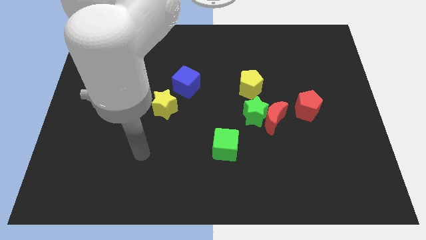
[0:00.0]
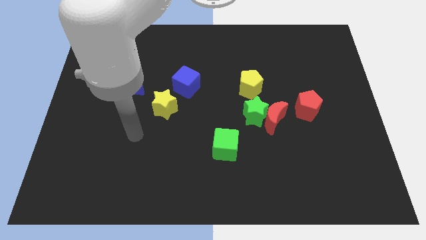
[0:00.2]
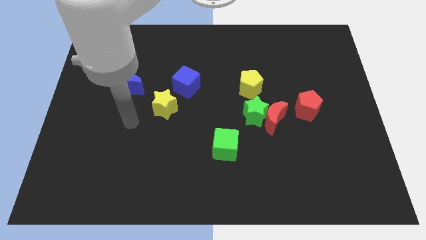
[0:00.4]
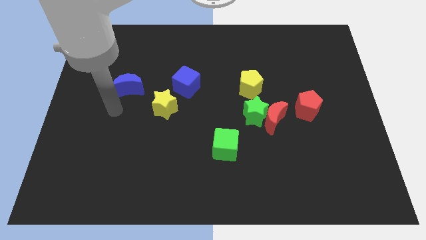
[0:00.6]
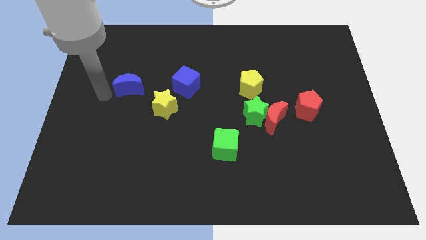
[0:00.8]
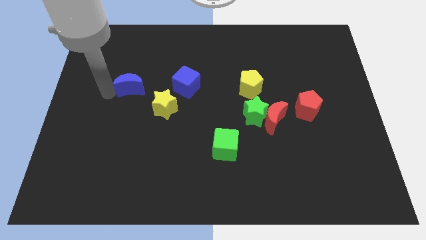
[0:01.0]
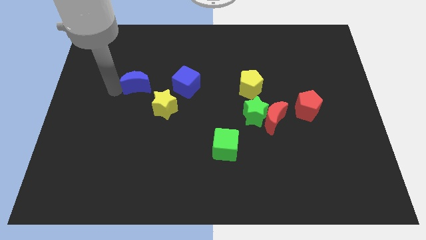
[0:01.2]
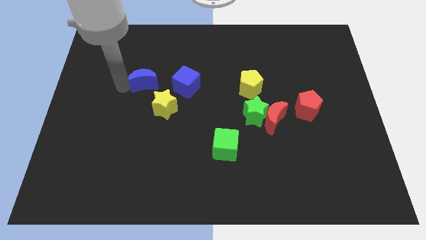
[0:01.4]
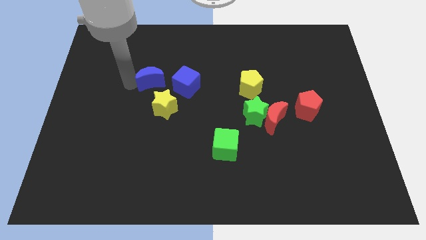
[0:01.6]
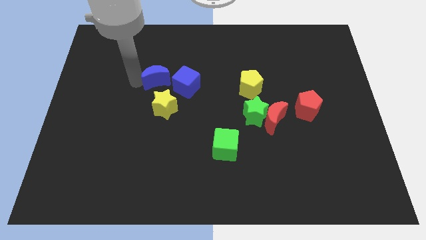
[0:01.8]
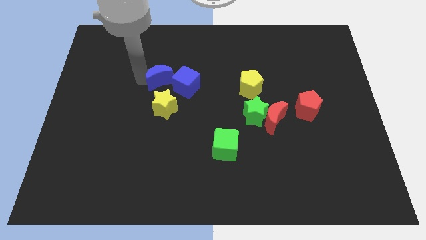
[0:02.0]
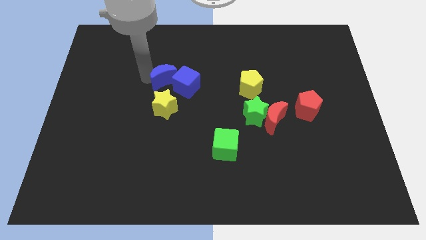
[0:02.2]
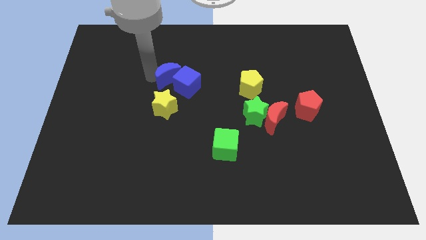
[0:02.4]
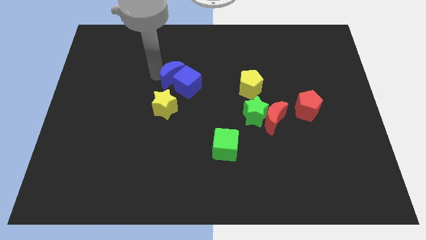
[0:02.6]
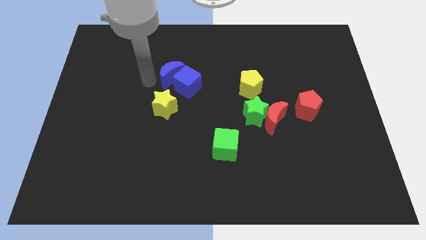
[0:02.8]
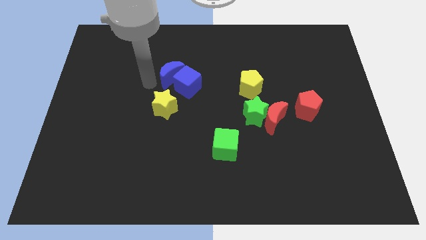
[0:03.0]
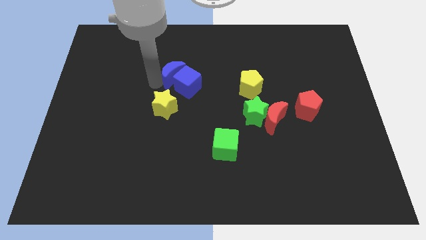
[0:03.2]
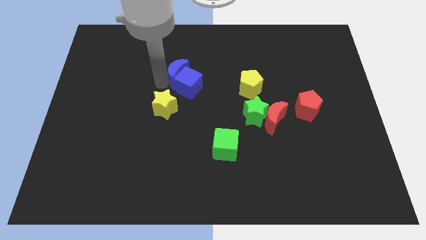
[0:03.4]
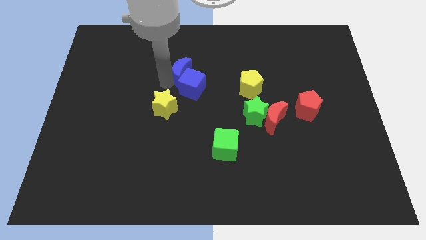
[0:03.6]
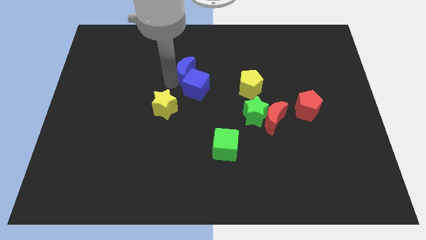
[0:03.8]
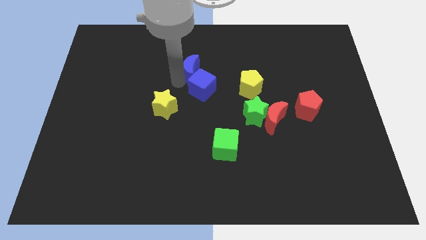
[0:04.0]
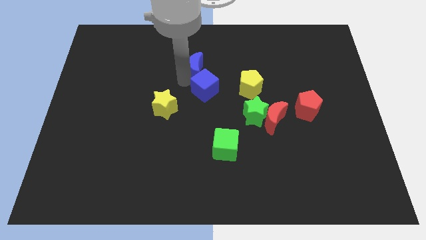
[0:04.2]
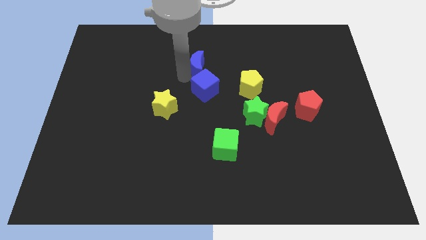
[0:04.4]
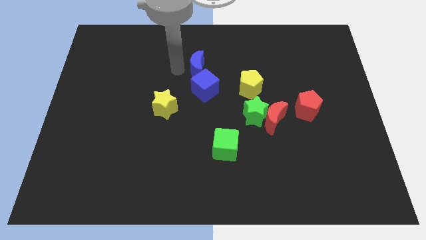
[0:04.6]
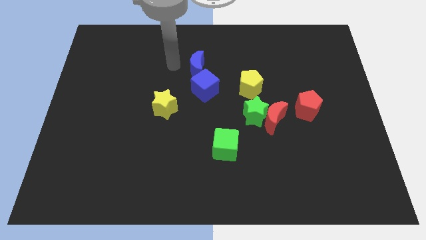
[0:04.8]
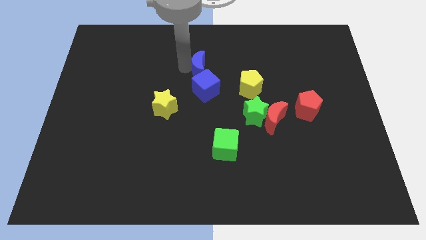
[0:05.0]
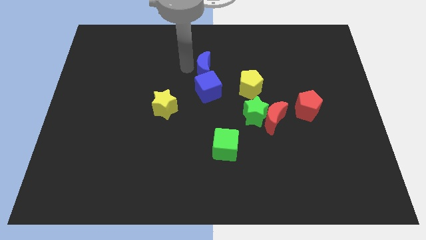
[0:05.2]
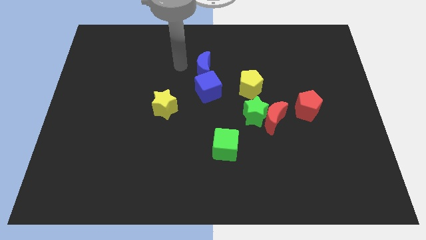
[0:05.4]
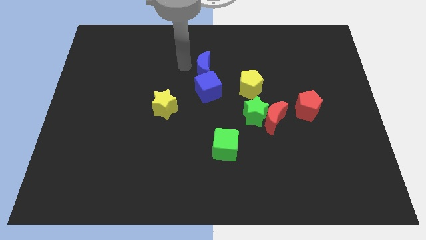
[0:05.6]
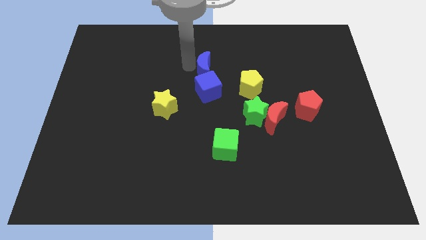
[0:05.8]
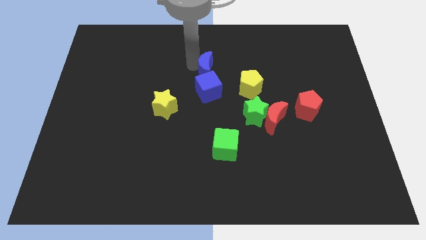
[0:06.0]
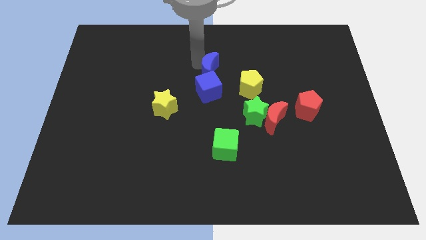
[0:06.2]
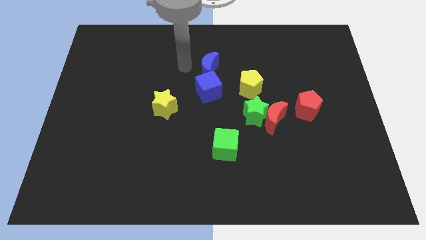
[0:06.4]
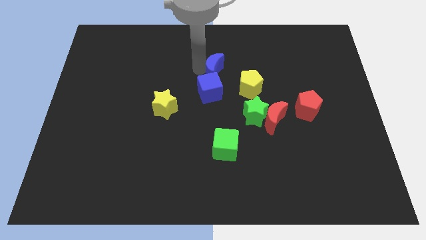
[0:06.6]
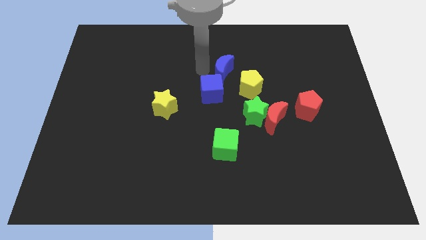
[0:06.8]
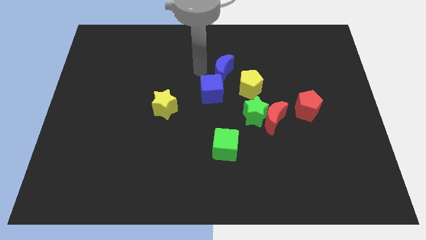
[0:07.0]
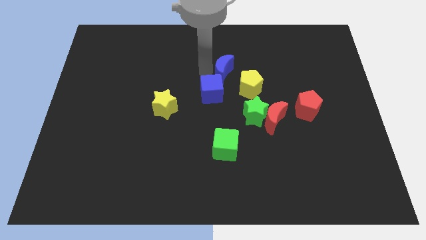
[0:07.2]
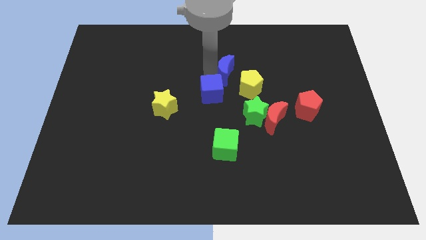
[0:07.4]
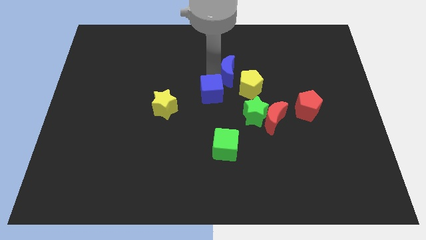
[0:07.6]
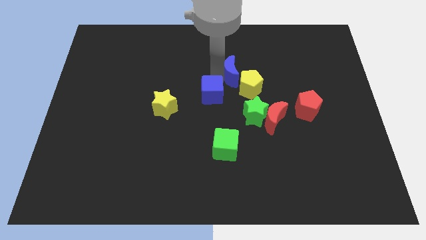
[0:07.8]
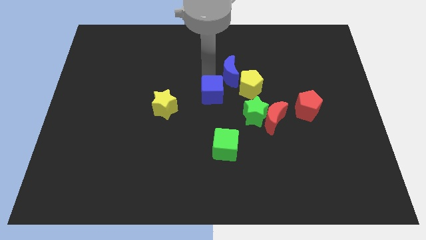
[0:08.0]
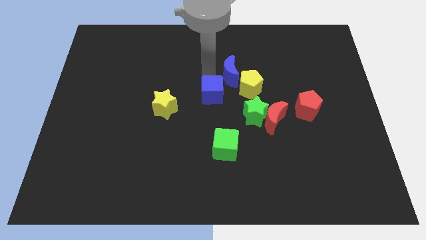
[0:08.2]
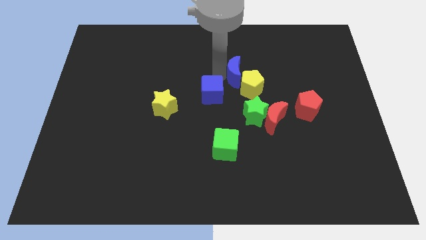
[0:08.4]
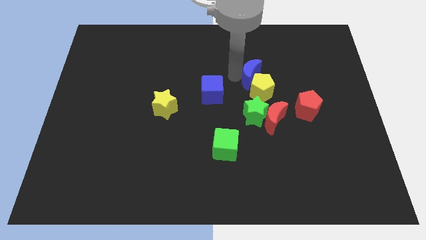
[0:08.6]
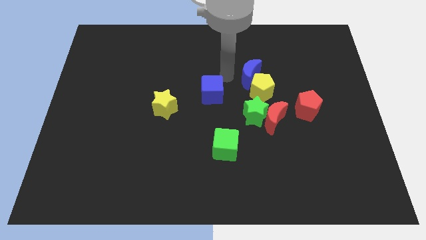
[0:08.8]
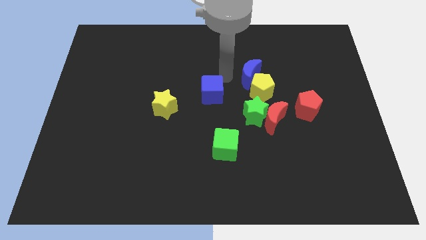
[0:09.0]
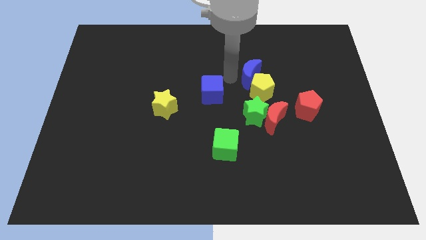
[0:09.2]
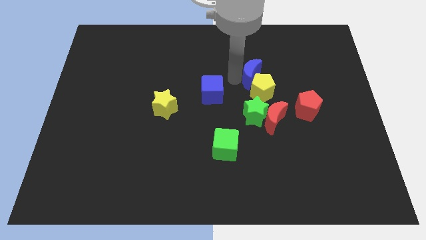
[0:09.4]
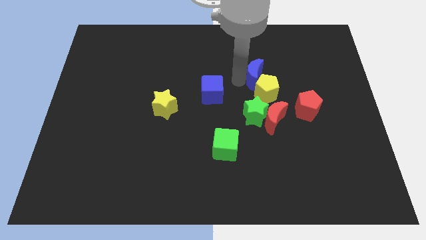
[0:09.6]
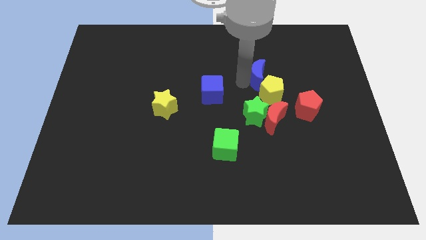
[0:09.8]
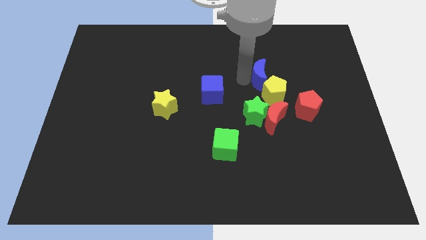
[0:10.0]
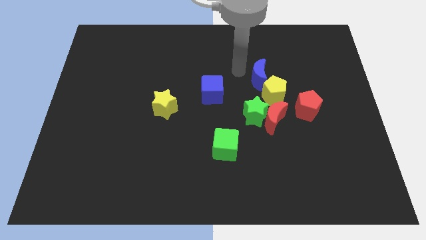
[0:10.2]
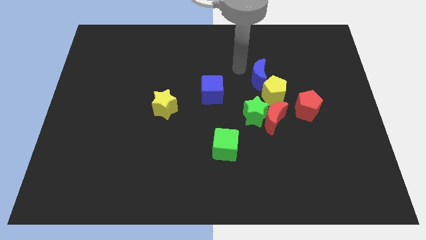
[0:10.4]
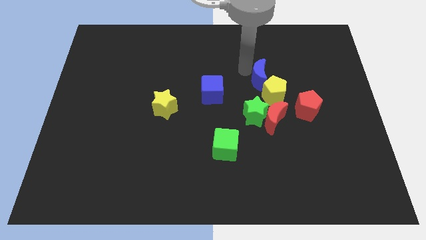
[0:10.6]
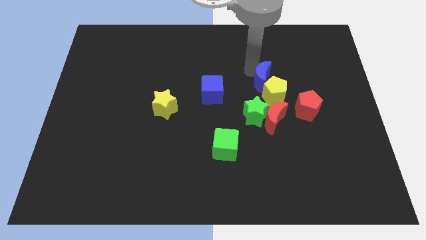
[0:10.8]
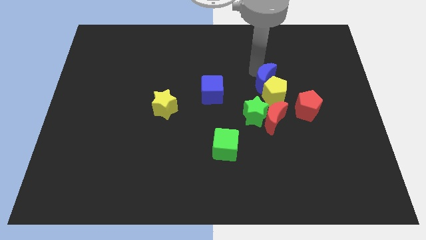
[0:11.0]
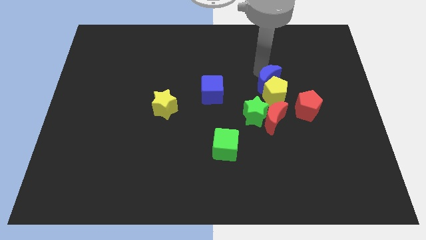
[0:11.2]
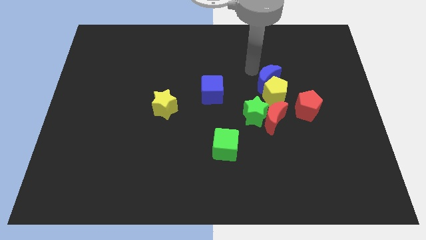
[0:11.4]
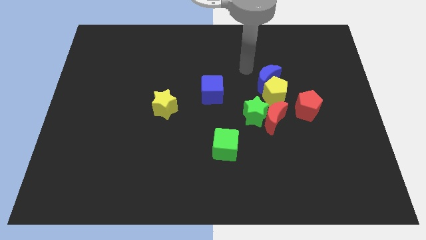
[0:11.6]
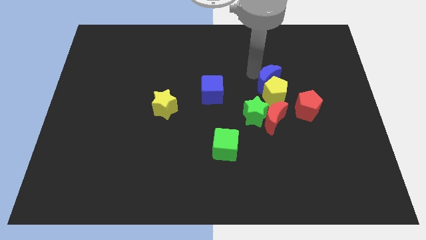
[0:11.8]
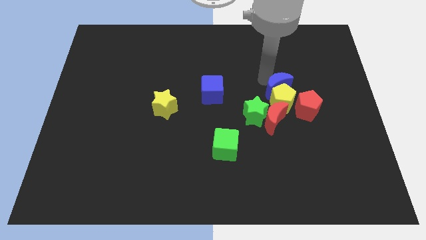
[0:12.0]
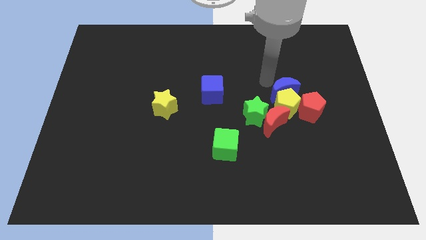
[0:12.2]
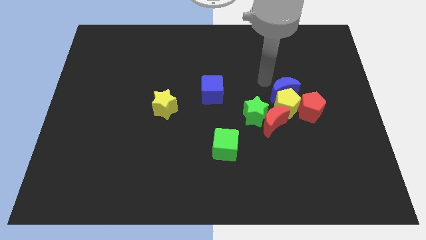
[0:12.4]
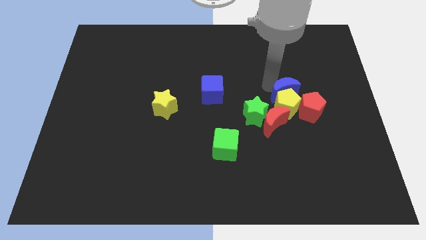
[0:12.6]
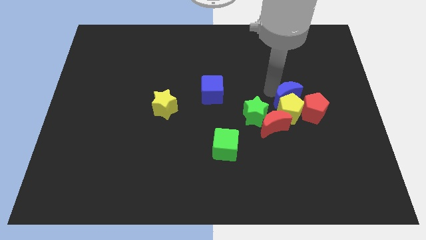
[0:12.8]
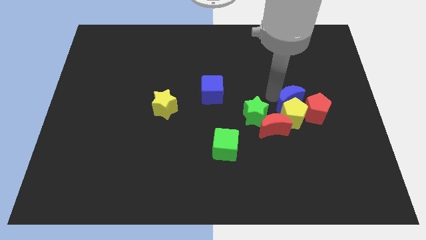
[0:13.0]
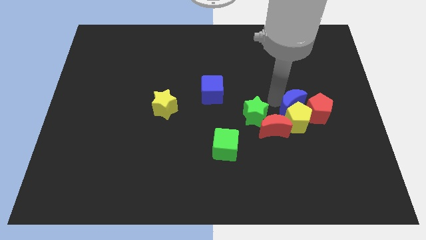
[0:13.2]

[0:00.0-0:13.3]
slide the blue moon towards the red pentagon

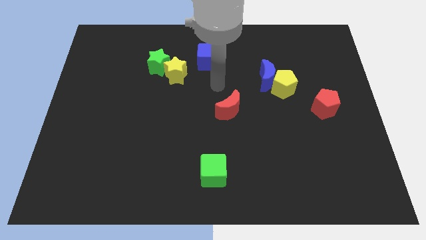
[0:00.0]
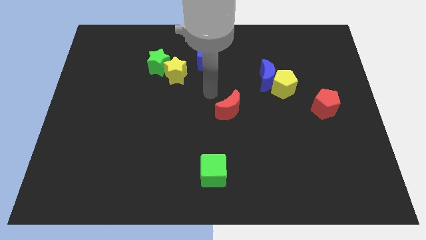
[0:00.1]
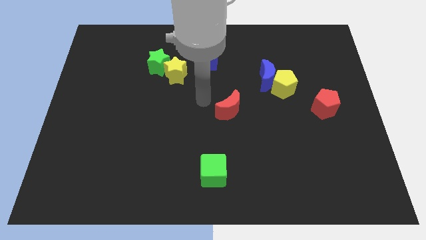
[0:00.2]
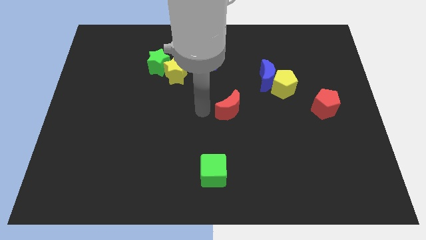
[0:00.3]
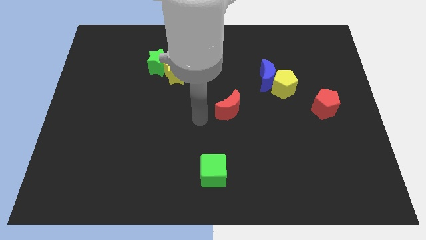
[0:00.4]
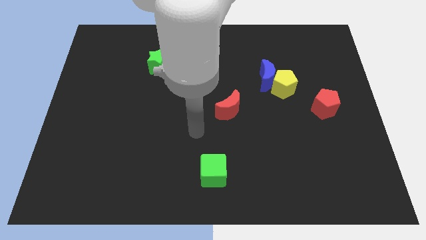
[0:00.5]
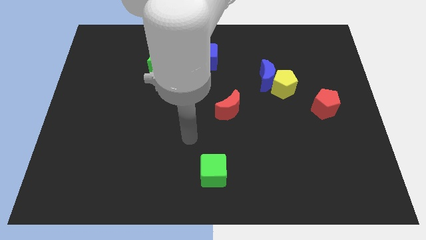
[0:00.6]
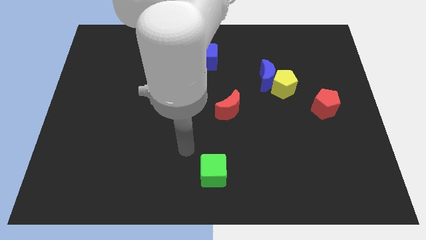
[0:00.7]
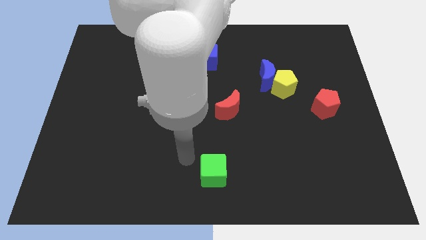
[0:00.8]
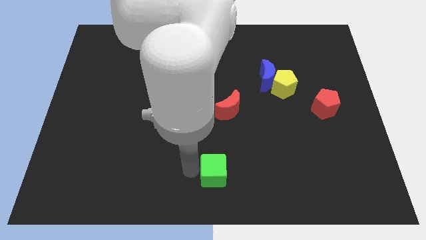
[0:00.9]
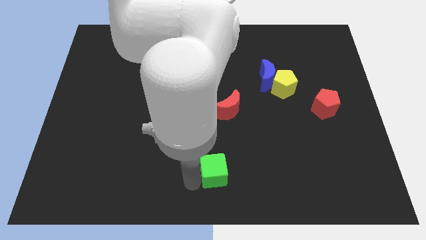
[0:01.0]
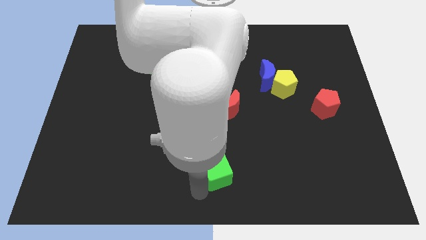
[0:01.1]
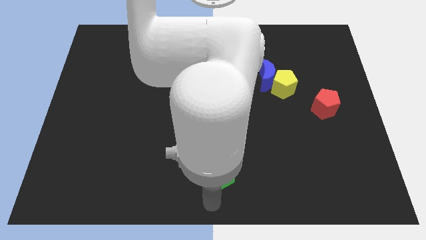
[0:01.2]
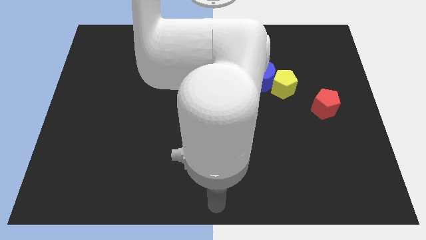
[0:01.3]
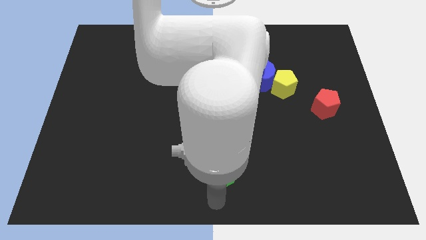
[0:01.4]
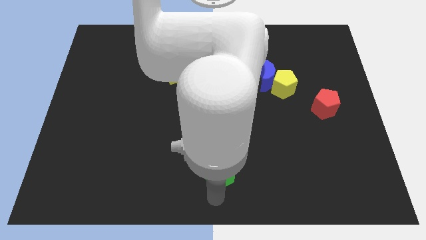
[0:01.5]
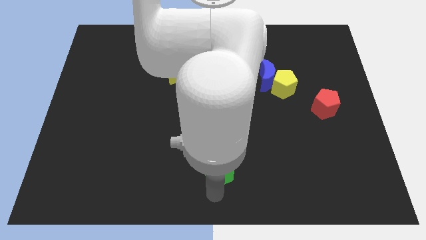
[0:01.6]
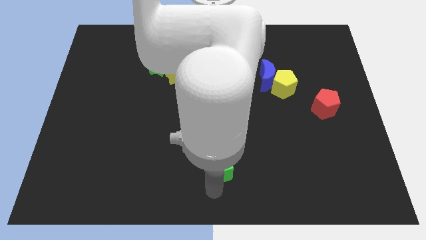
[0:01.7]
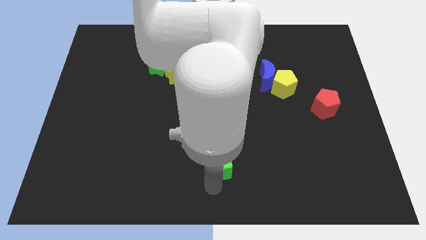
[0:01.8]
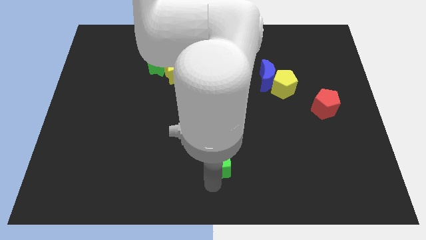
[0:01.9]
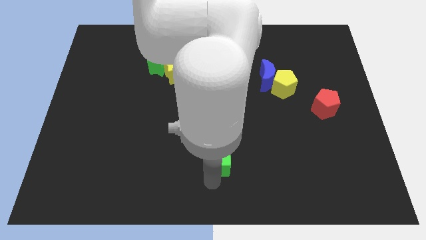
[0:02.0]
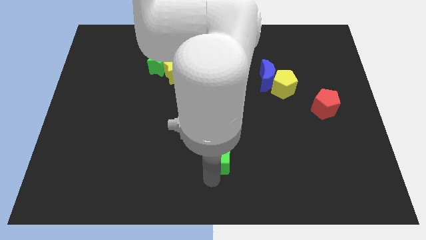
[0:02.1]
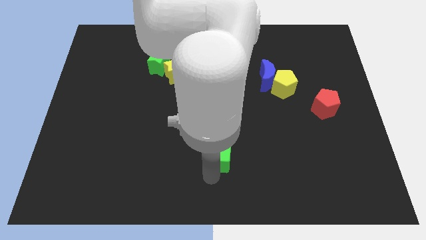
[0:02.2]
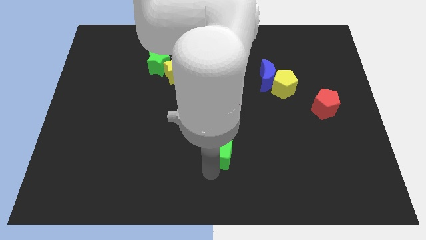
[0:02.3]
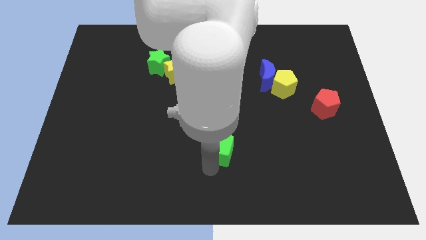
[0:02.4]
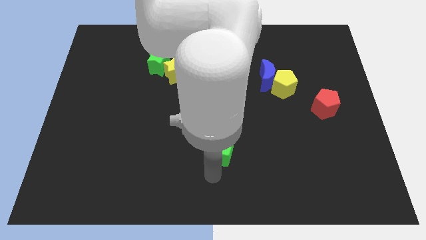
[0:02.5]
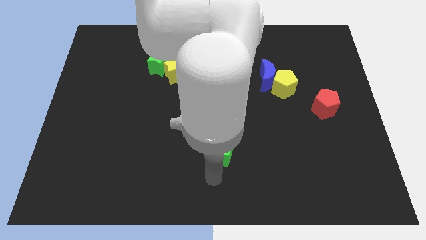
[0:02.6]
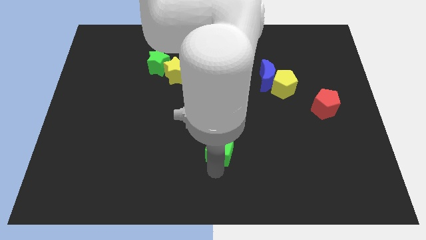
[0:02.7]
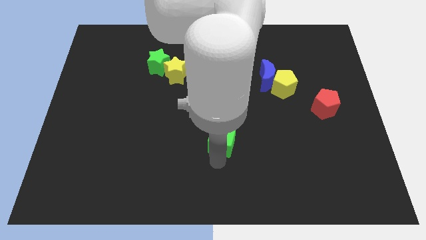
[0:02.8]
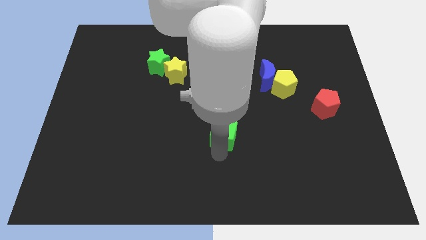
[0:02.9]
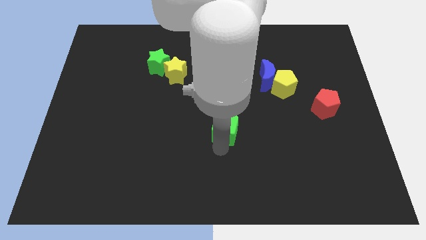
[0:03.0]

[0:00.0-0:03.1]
move the green cube towards the red moon
